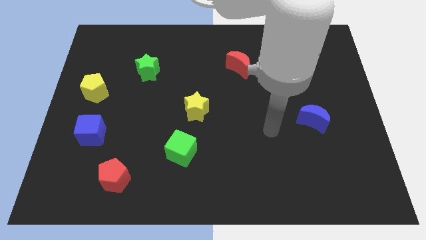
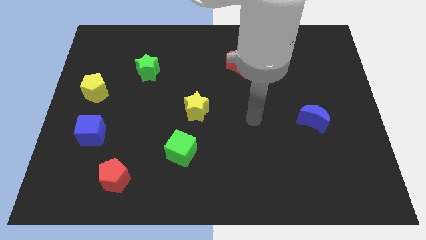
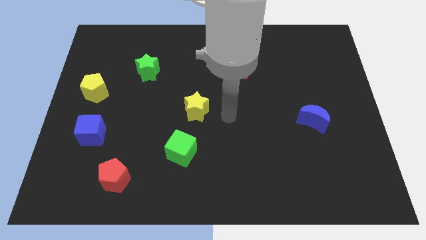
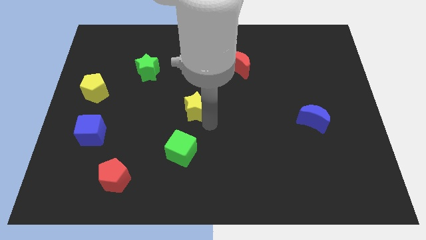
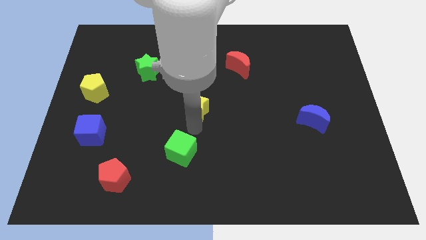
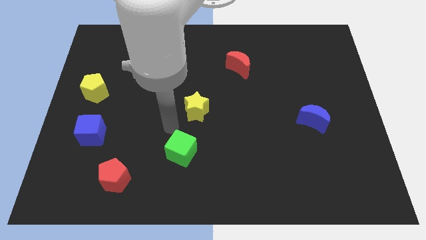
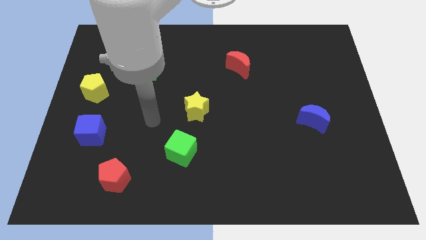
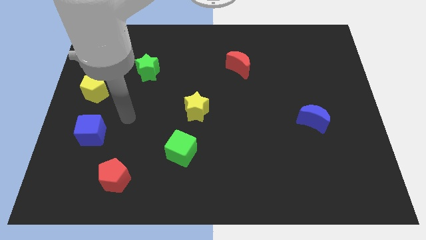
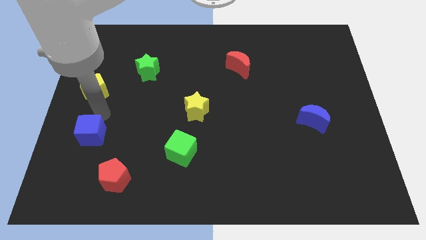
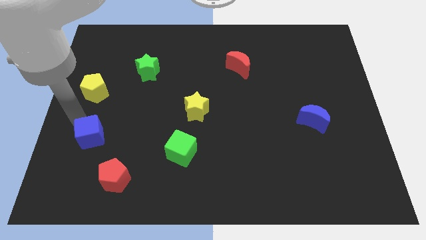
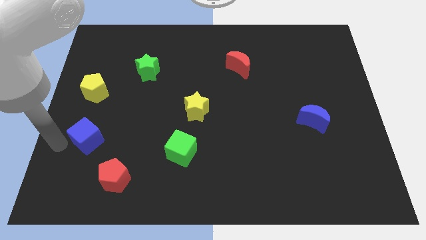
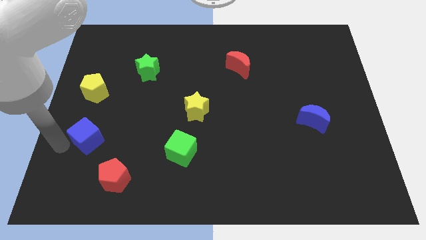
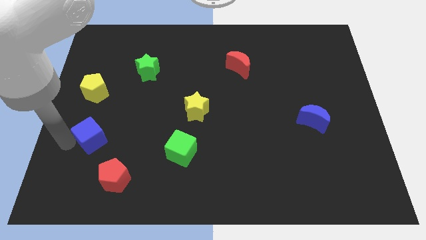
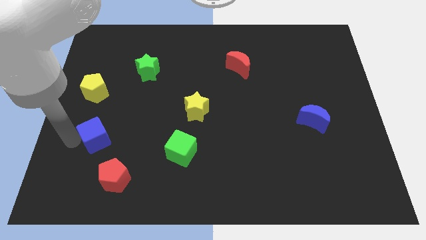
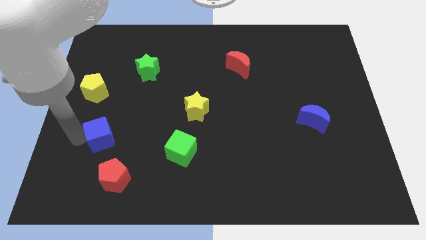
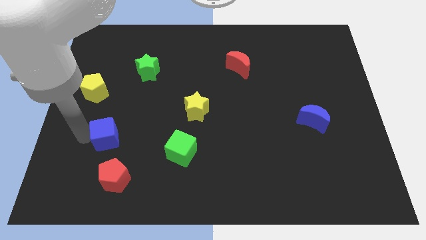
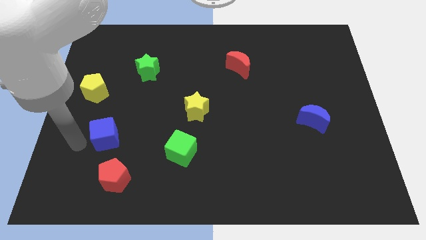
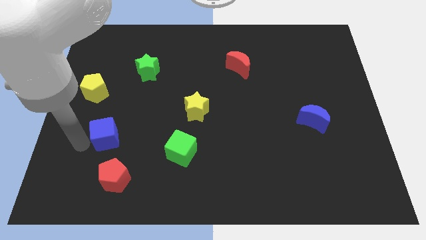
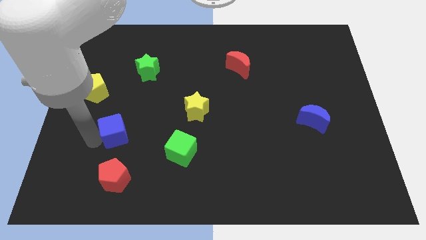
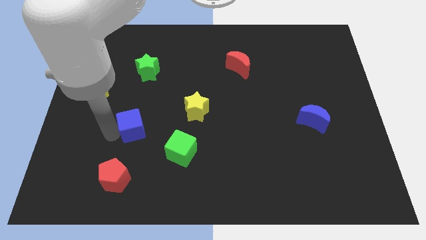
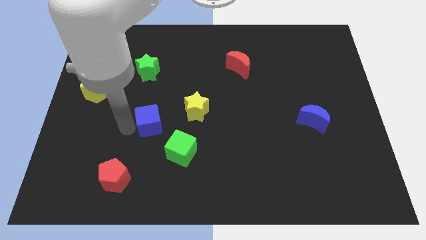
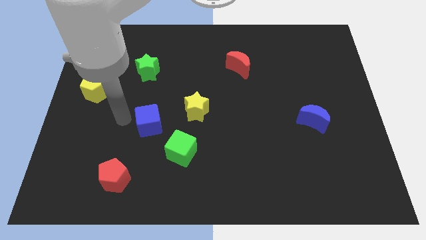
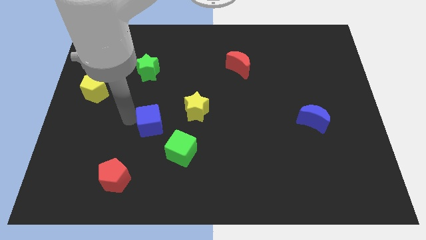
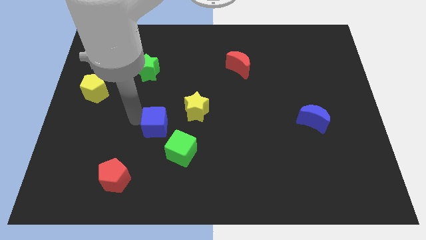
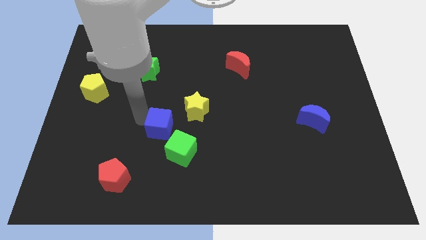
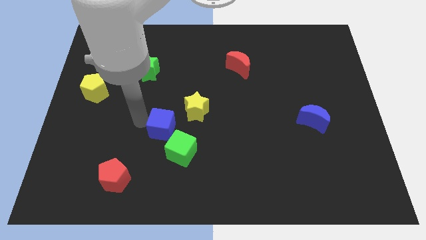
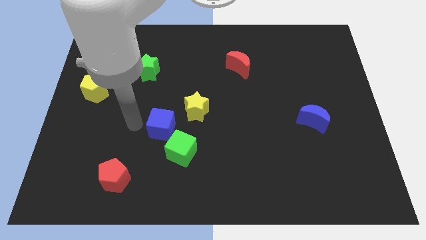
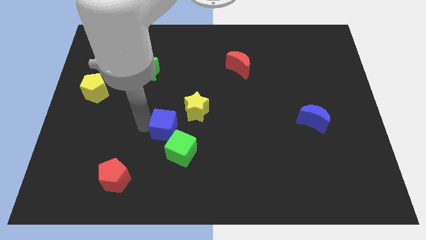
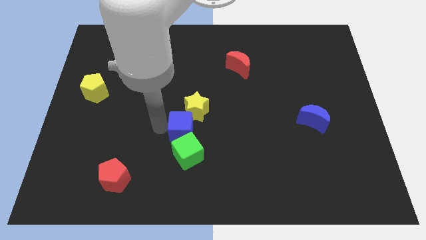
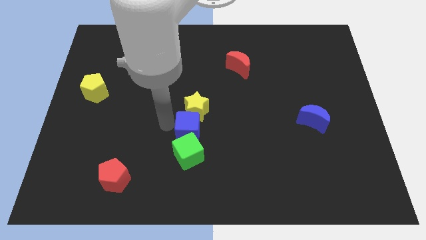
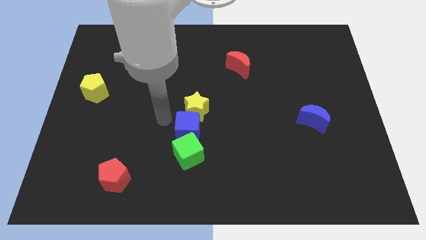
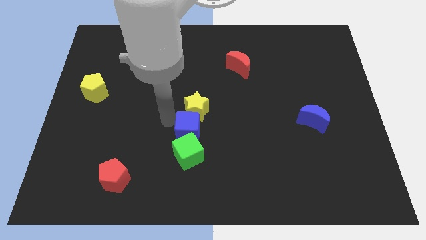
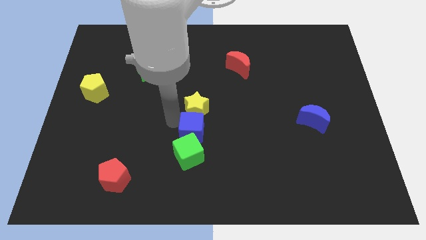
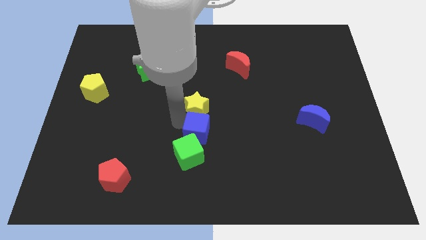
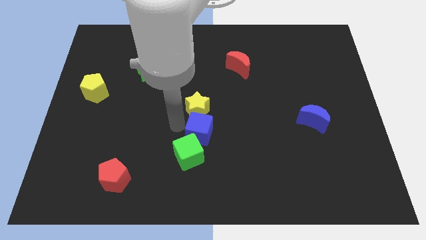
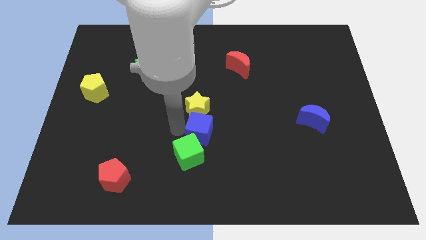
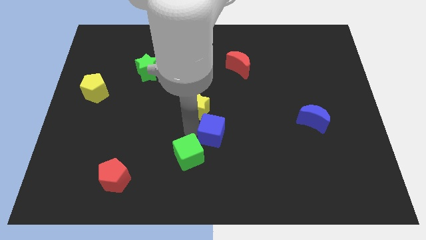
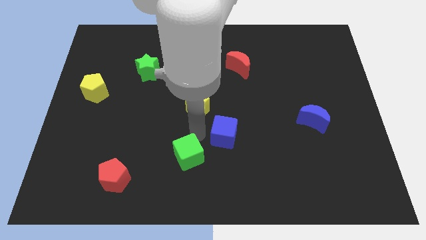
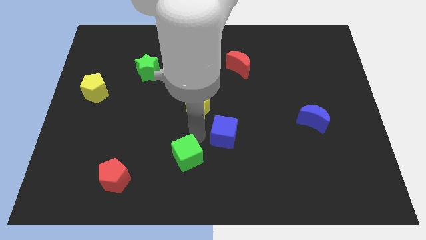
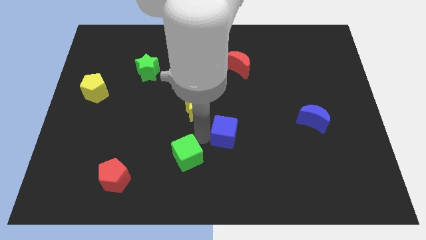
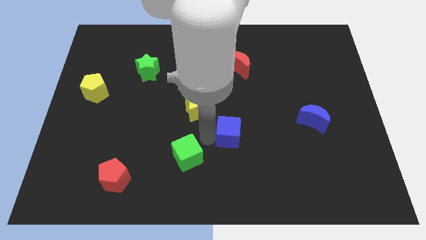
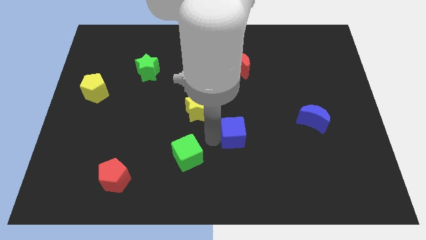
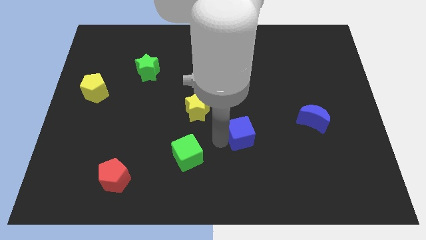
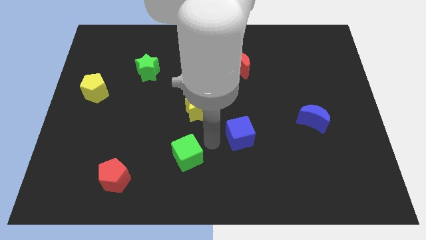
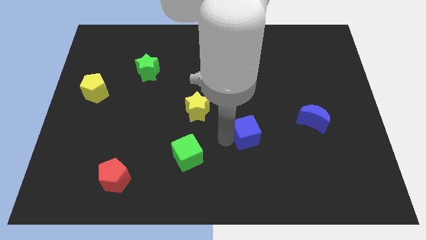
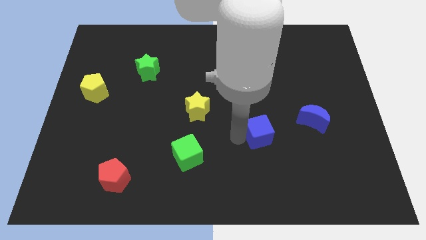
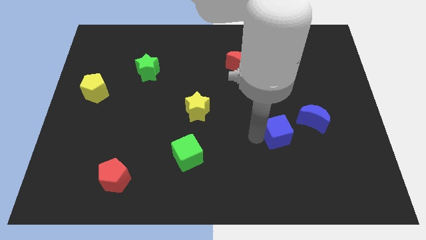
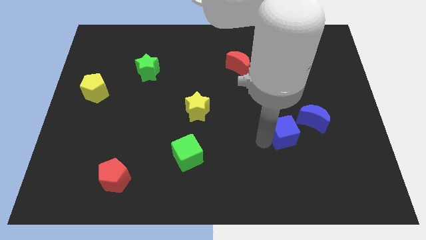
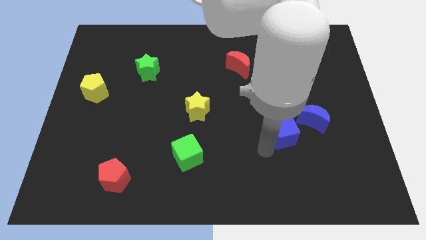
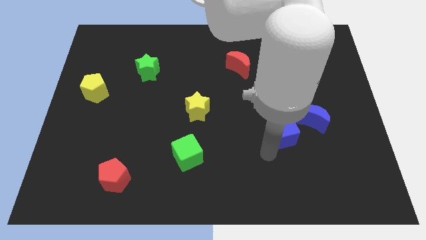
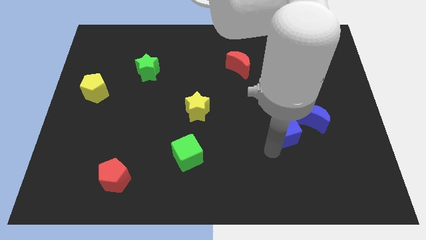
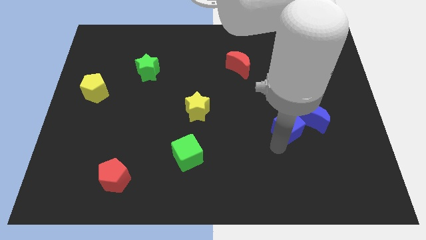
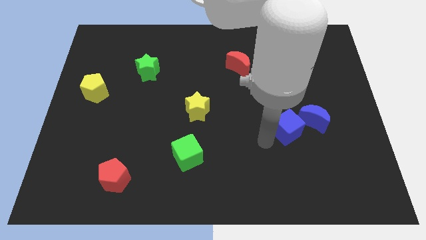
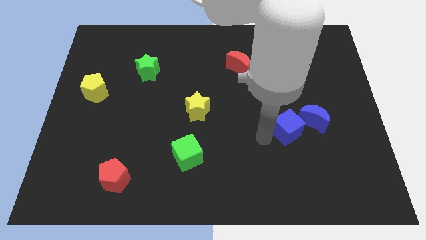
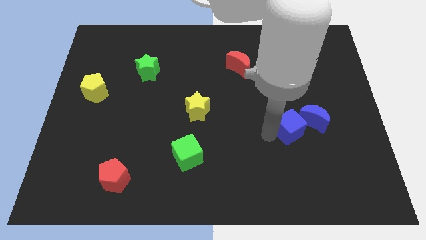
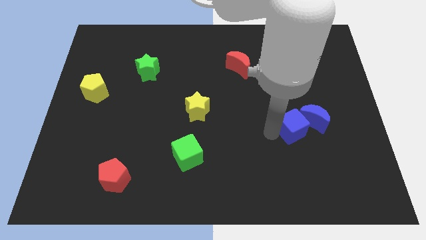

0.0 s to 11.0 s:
move the blue cube to the blue moon

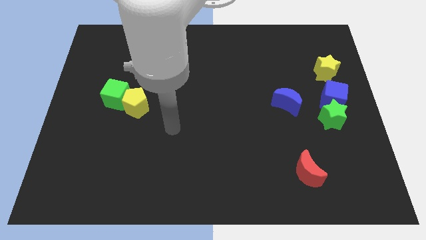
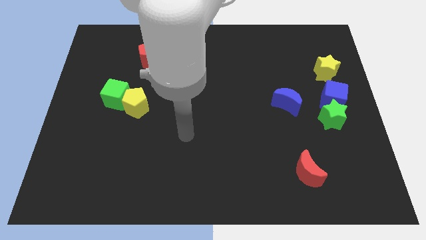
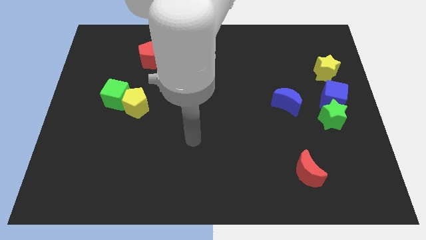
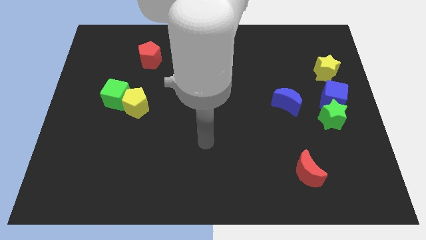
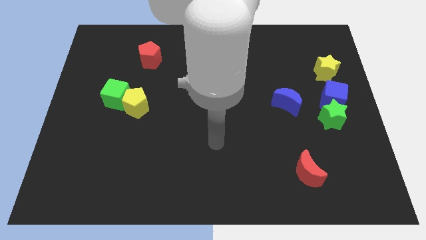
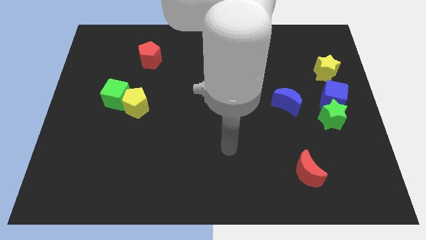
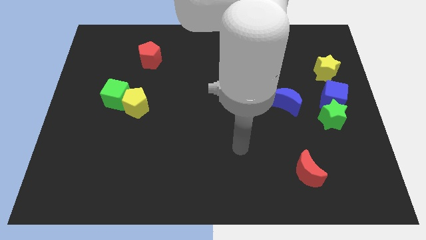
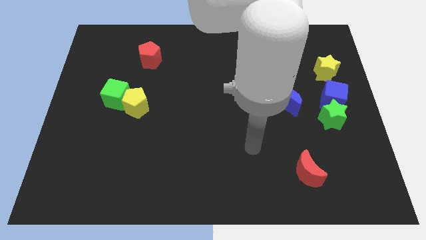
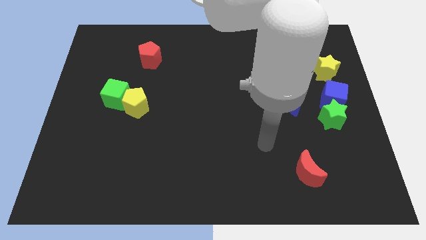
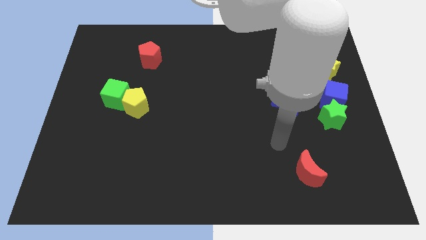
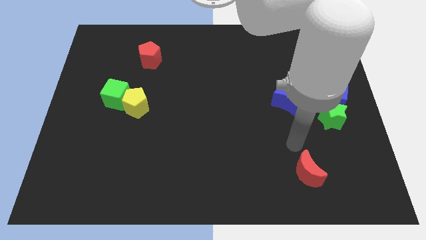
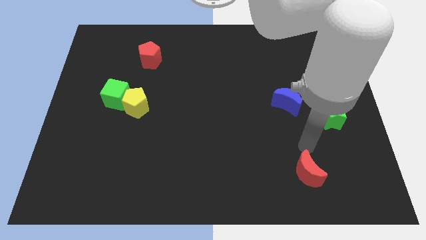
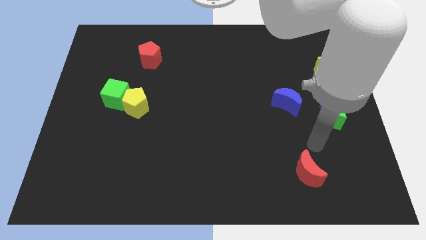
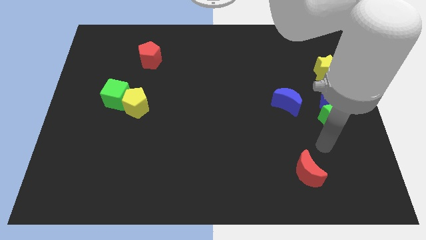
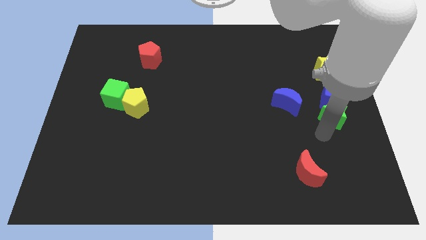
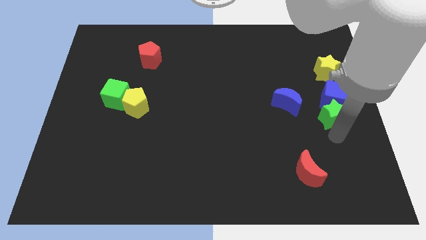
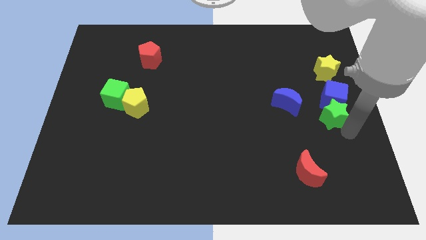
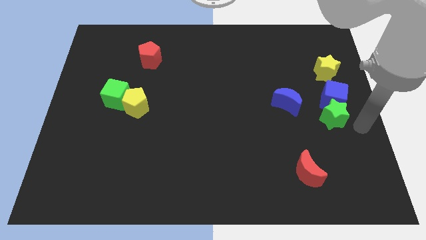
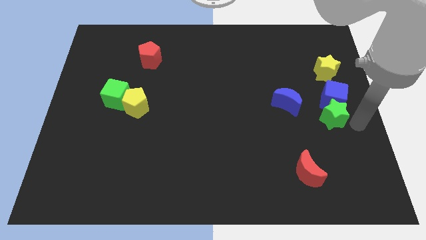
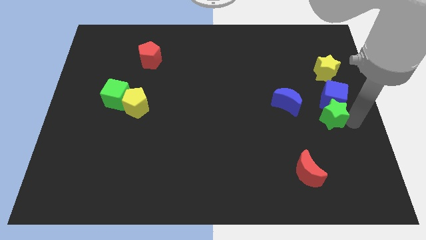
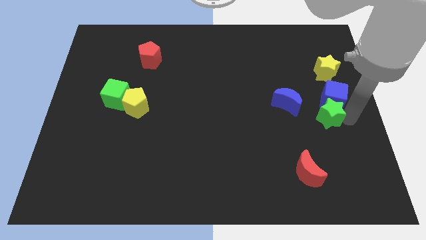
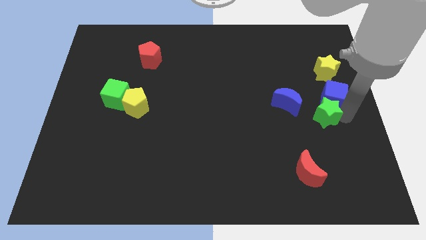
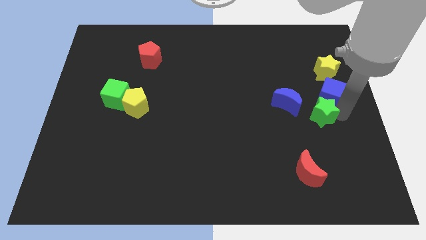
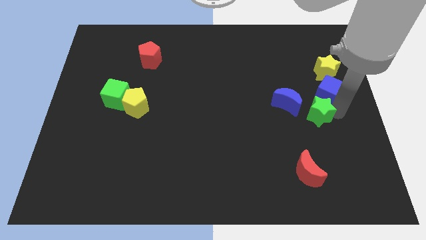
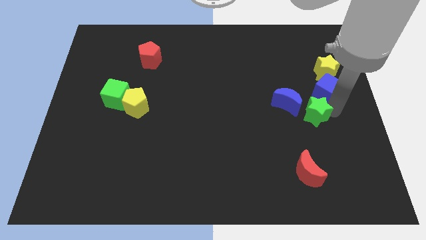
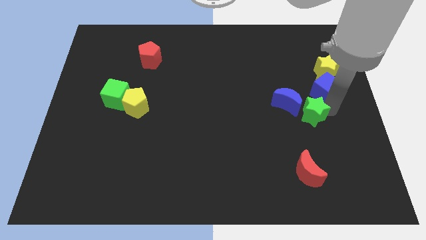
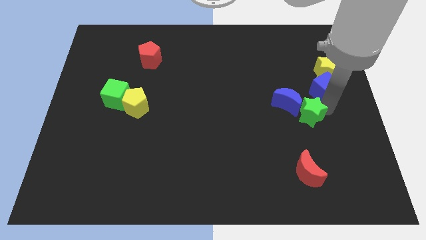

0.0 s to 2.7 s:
push the green star towards the blue moon
